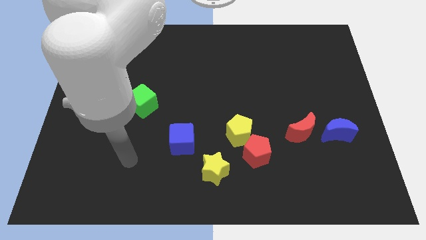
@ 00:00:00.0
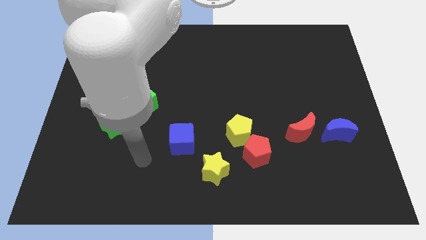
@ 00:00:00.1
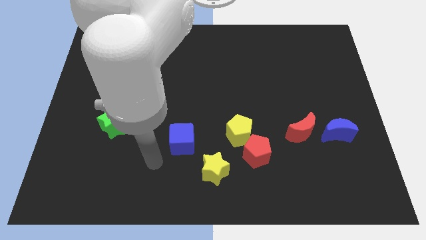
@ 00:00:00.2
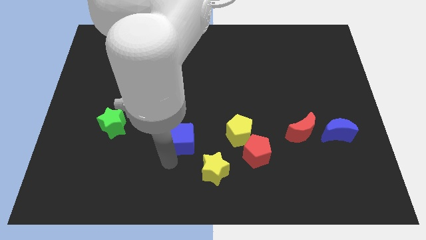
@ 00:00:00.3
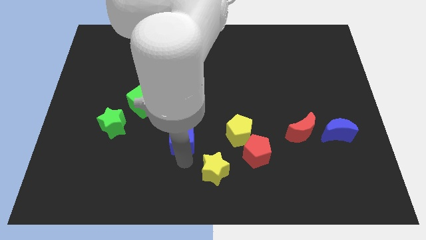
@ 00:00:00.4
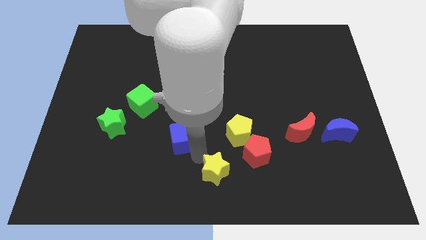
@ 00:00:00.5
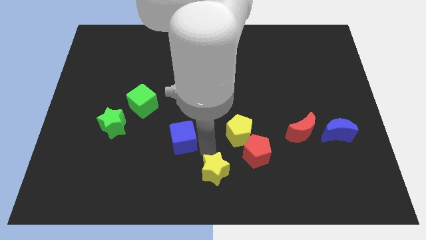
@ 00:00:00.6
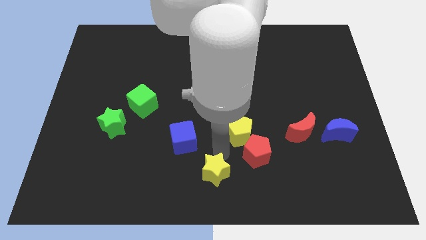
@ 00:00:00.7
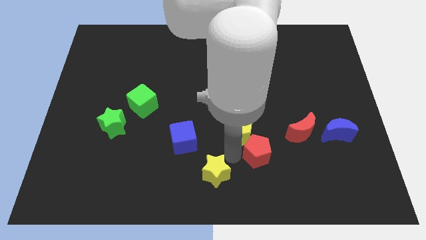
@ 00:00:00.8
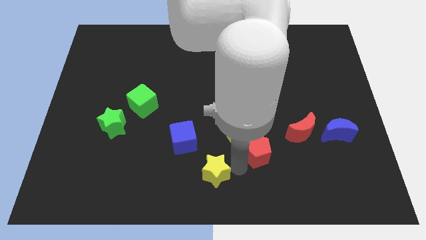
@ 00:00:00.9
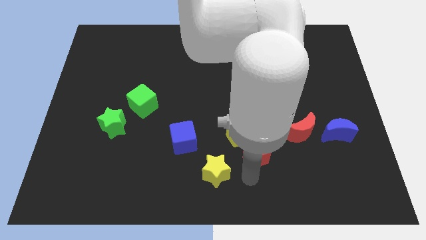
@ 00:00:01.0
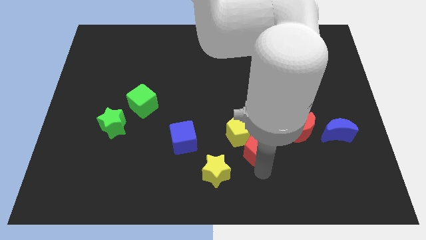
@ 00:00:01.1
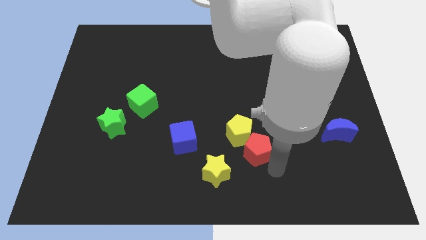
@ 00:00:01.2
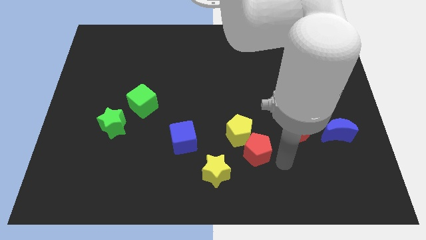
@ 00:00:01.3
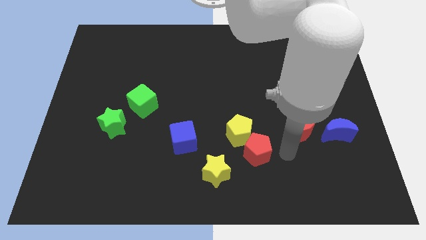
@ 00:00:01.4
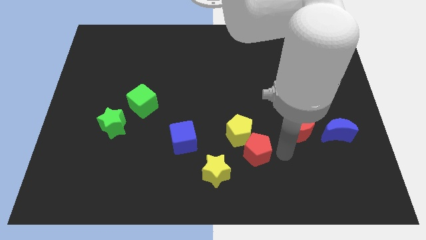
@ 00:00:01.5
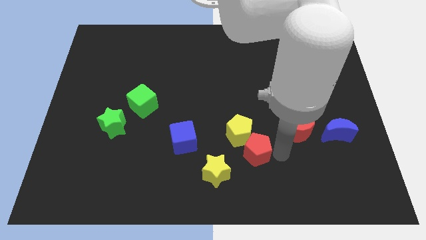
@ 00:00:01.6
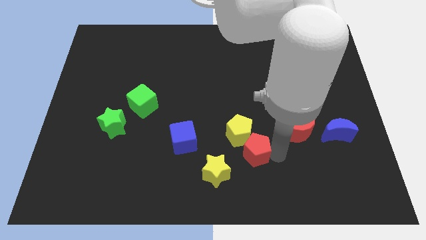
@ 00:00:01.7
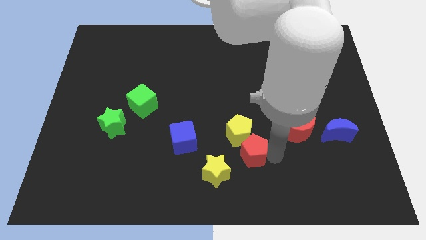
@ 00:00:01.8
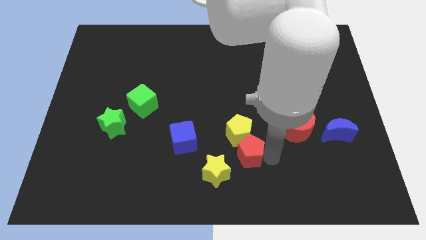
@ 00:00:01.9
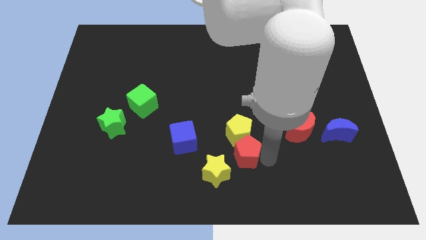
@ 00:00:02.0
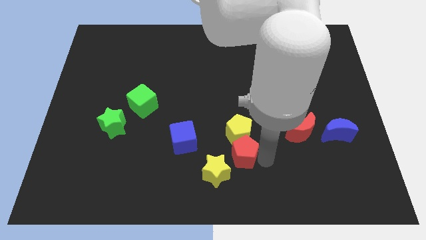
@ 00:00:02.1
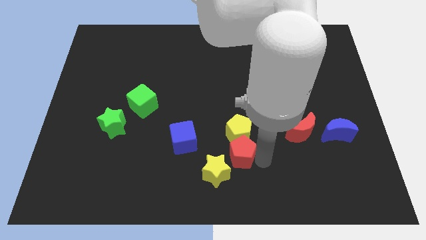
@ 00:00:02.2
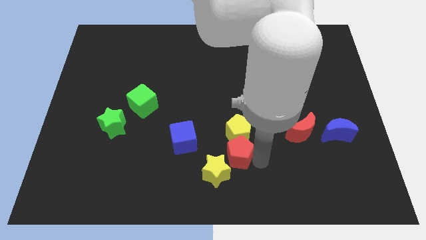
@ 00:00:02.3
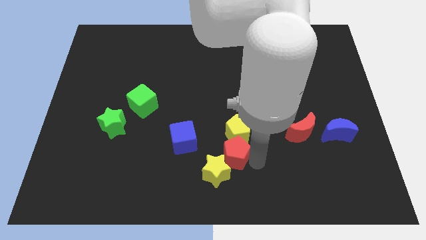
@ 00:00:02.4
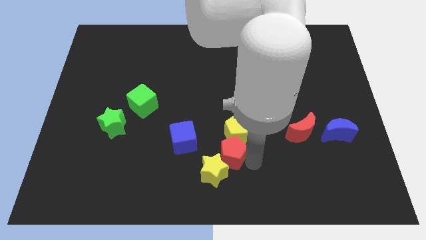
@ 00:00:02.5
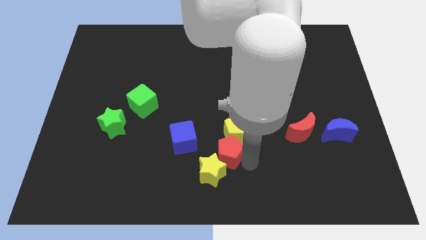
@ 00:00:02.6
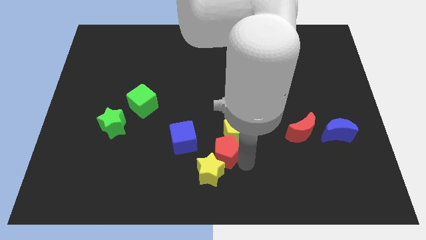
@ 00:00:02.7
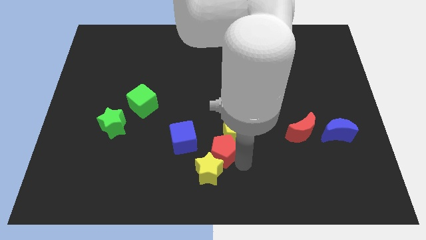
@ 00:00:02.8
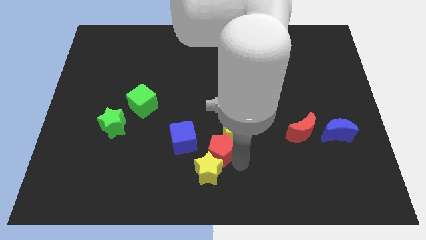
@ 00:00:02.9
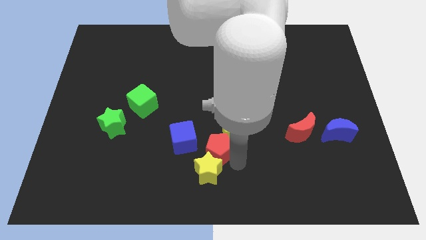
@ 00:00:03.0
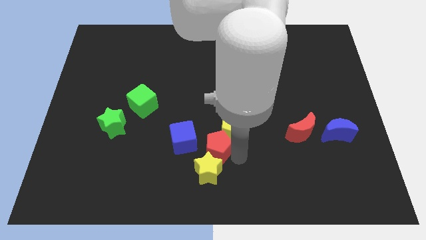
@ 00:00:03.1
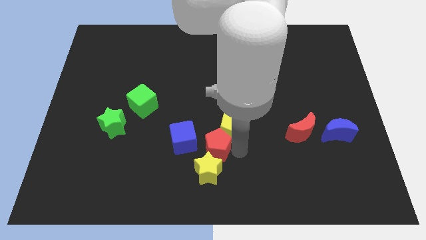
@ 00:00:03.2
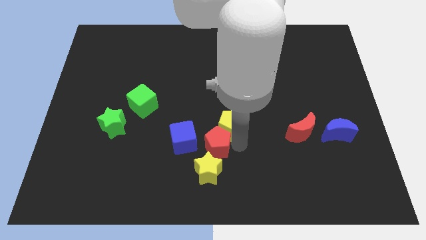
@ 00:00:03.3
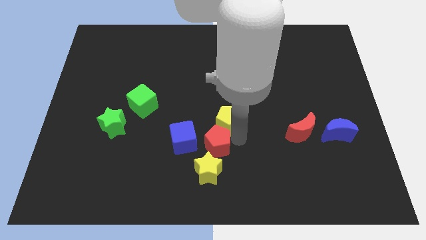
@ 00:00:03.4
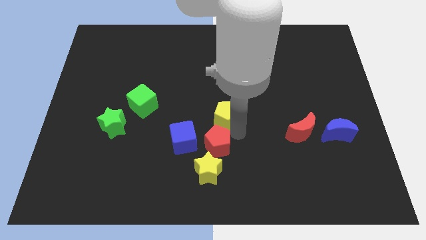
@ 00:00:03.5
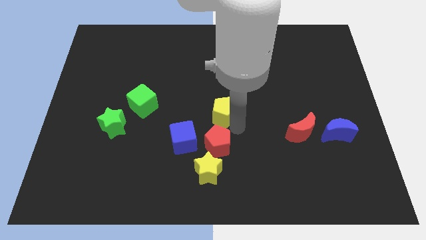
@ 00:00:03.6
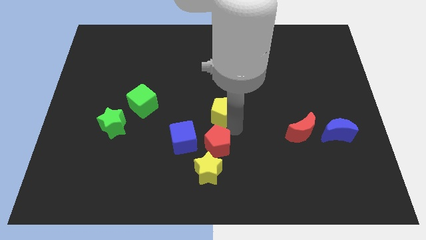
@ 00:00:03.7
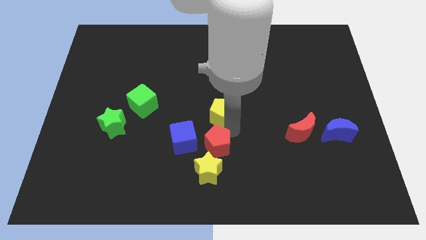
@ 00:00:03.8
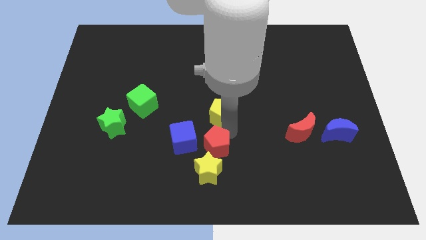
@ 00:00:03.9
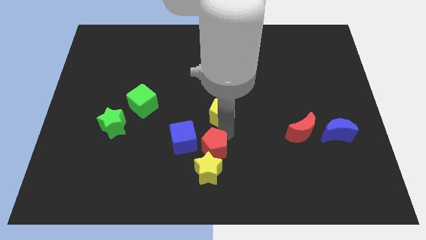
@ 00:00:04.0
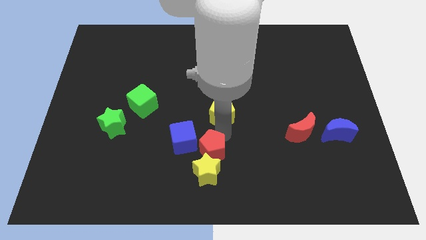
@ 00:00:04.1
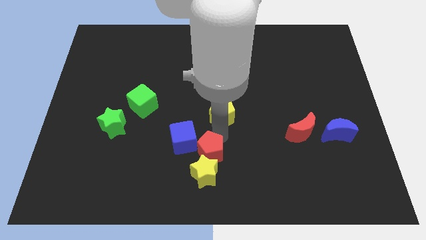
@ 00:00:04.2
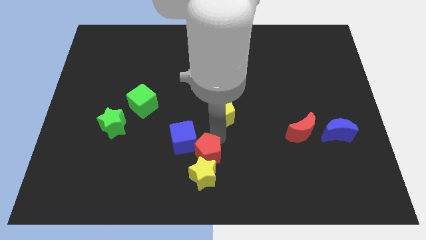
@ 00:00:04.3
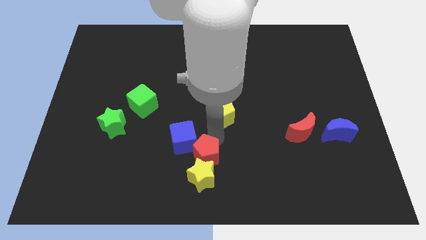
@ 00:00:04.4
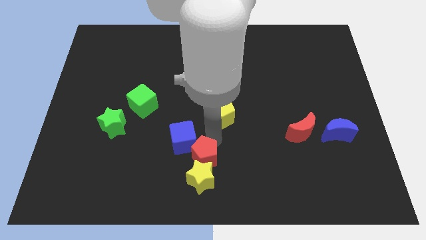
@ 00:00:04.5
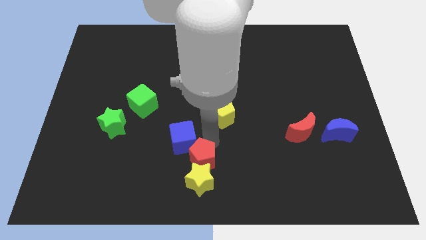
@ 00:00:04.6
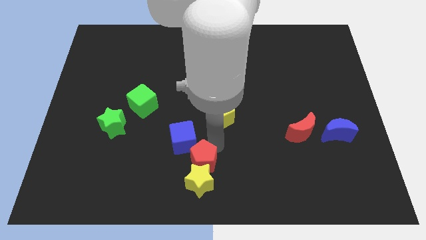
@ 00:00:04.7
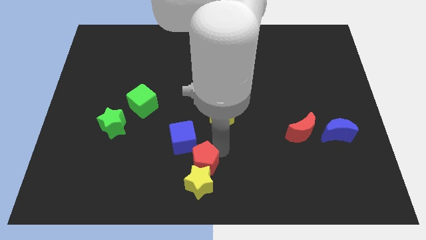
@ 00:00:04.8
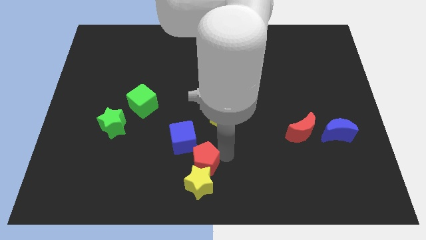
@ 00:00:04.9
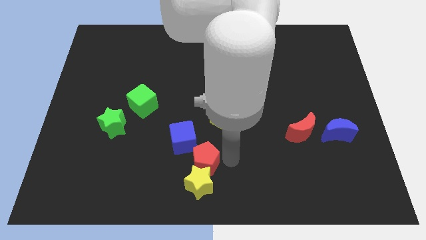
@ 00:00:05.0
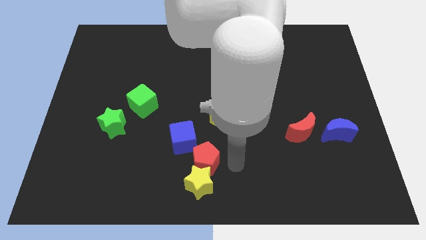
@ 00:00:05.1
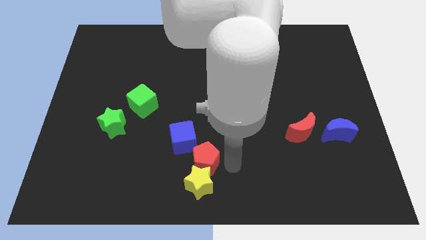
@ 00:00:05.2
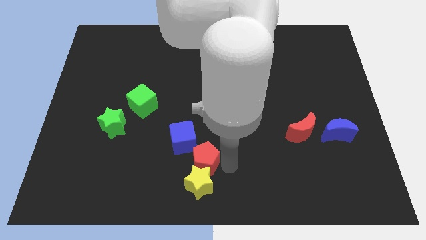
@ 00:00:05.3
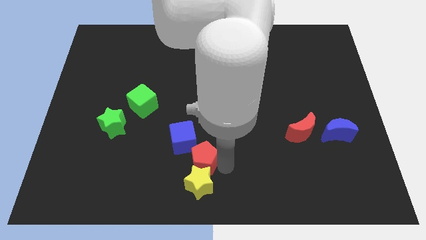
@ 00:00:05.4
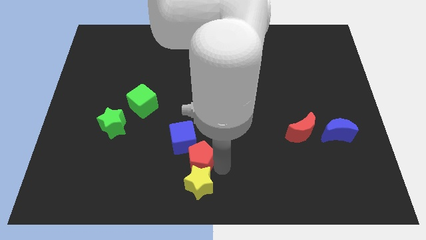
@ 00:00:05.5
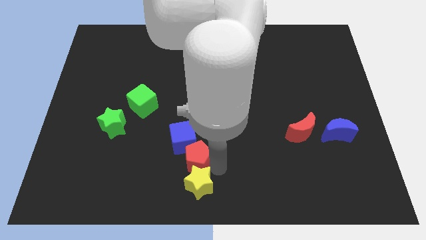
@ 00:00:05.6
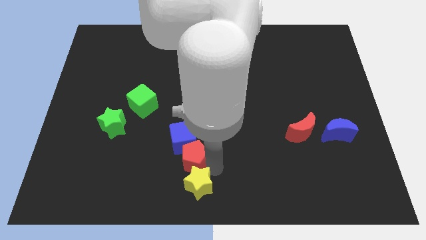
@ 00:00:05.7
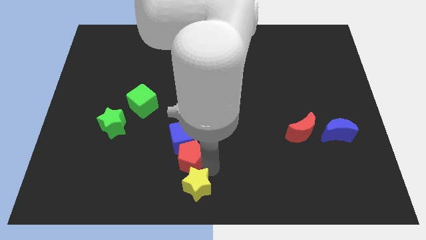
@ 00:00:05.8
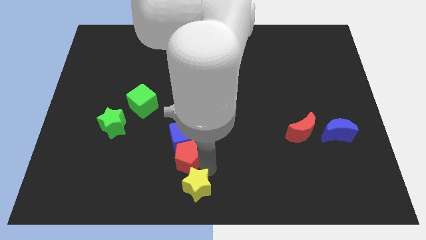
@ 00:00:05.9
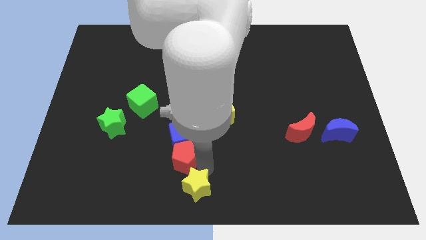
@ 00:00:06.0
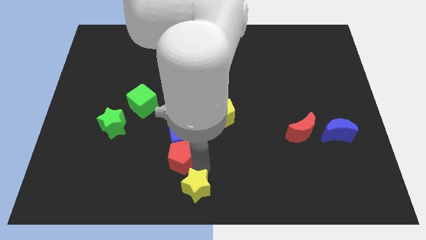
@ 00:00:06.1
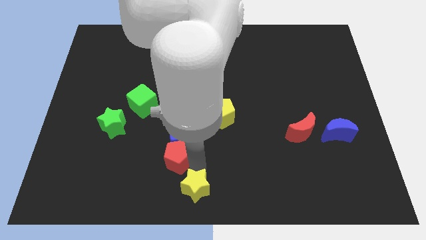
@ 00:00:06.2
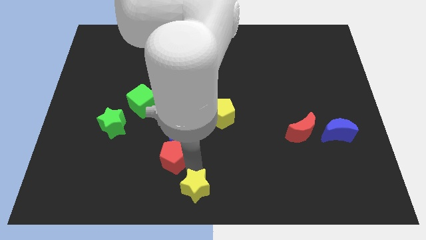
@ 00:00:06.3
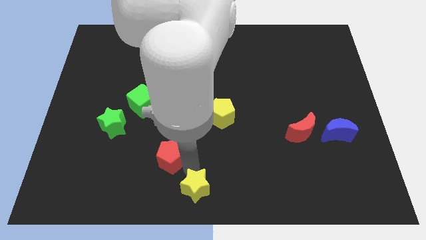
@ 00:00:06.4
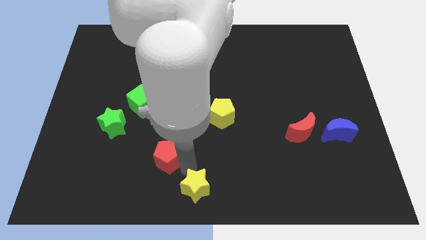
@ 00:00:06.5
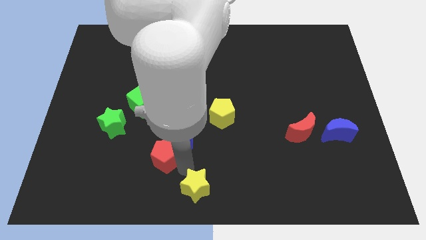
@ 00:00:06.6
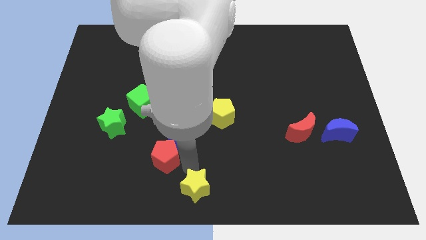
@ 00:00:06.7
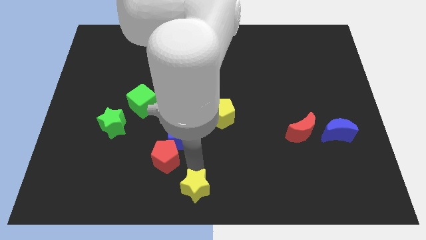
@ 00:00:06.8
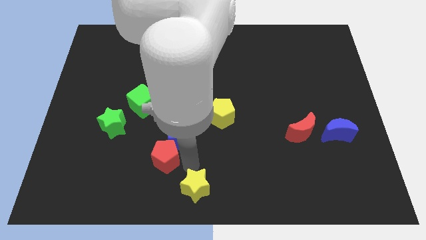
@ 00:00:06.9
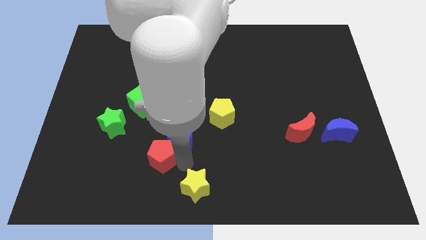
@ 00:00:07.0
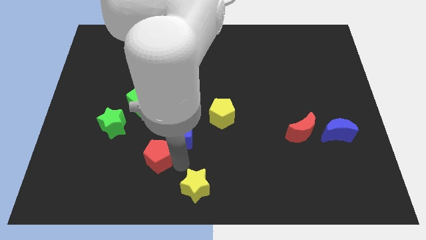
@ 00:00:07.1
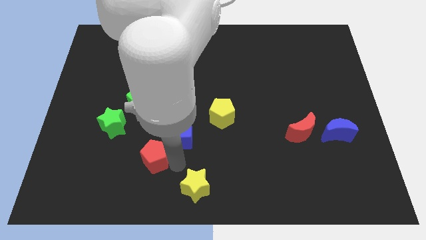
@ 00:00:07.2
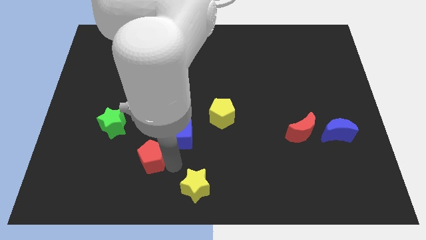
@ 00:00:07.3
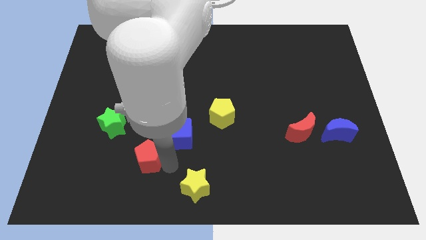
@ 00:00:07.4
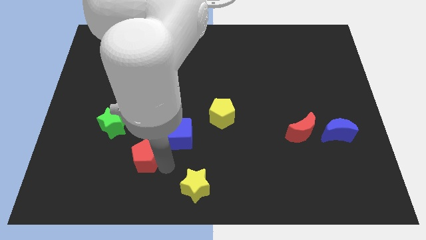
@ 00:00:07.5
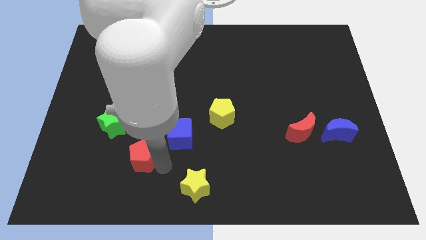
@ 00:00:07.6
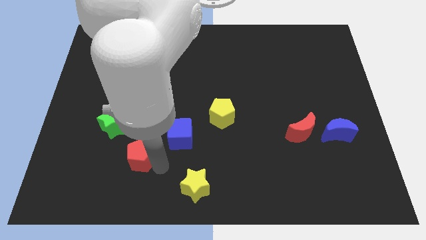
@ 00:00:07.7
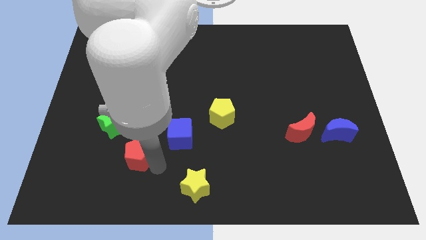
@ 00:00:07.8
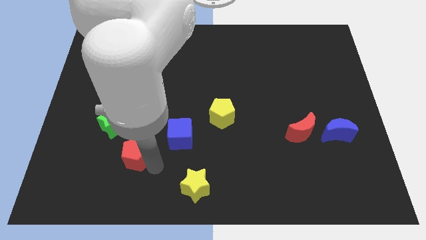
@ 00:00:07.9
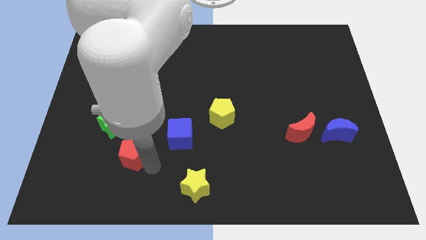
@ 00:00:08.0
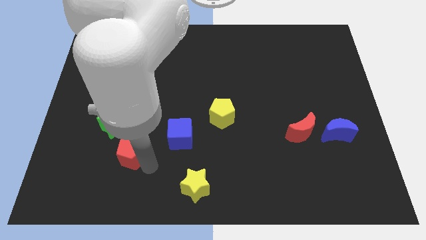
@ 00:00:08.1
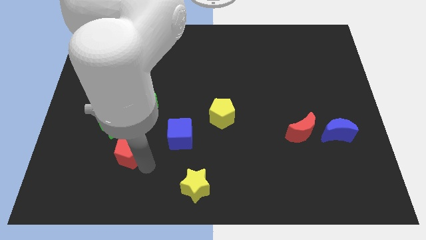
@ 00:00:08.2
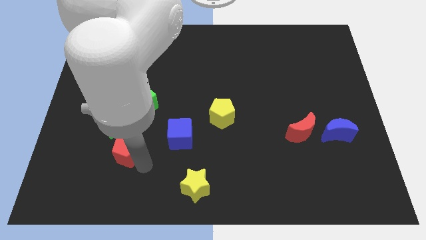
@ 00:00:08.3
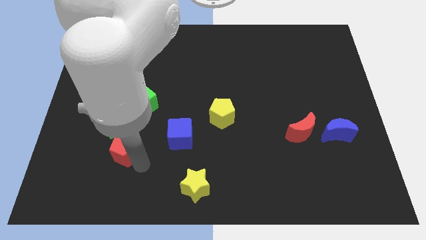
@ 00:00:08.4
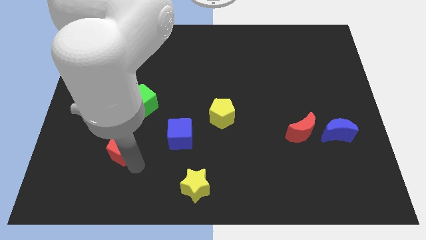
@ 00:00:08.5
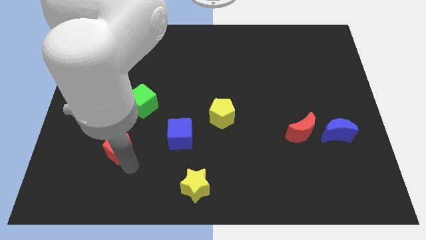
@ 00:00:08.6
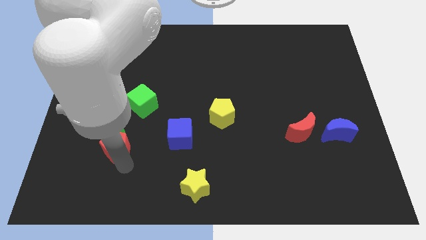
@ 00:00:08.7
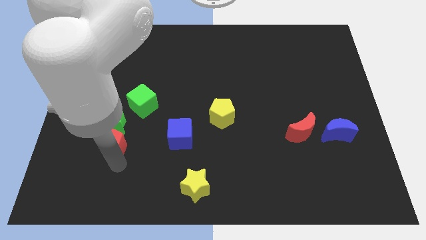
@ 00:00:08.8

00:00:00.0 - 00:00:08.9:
push the red pentagon next to the green star
